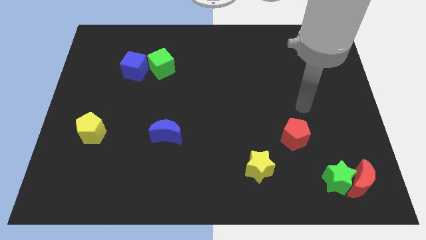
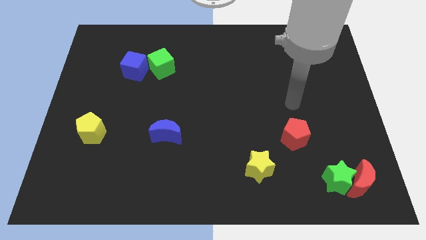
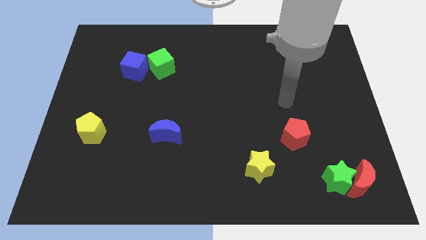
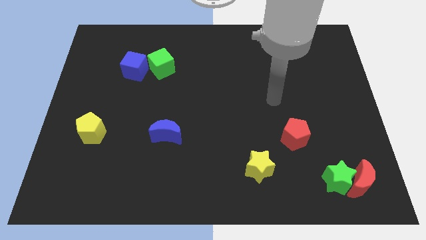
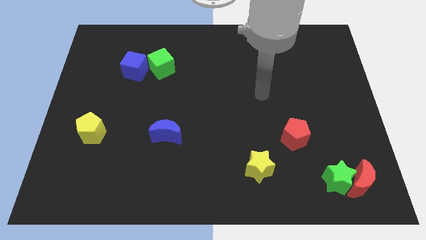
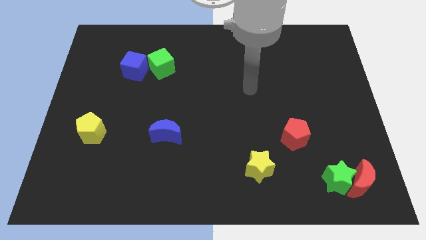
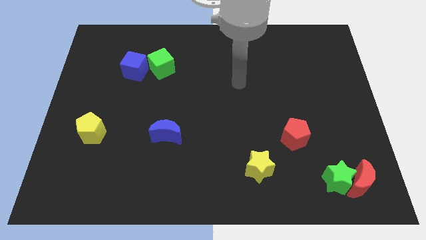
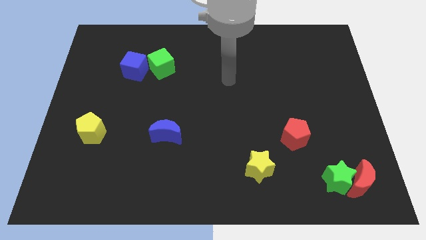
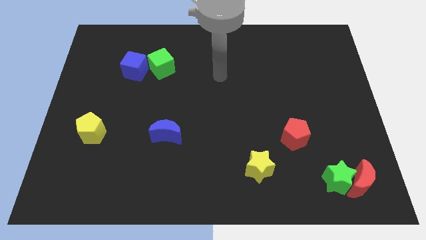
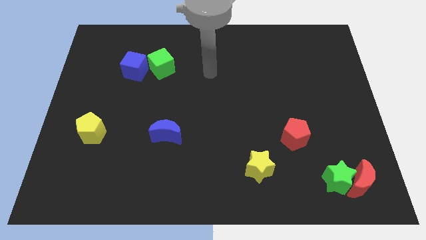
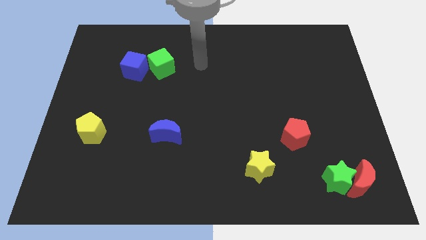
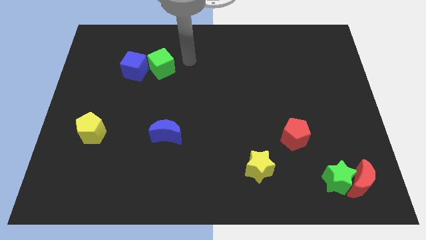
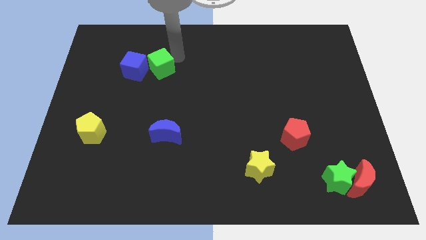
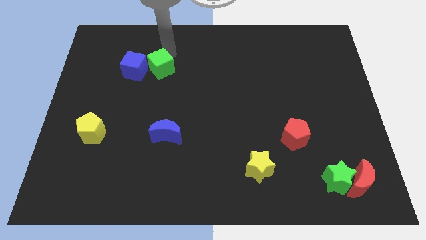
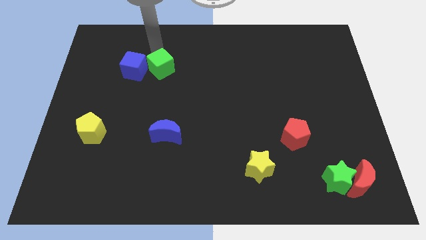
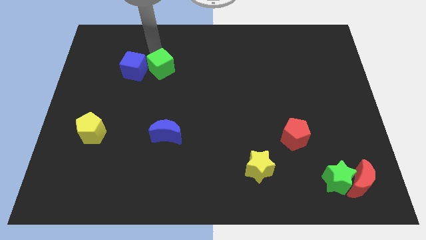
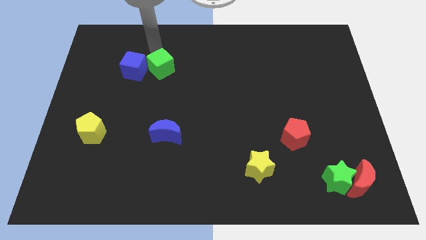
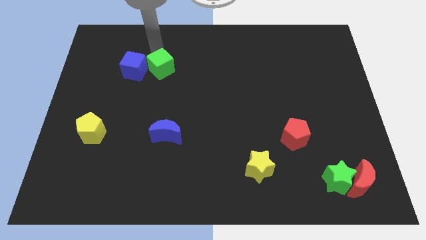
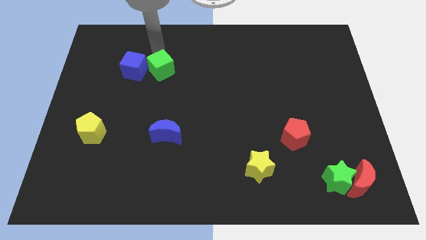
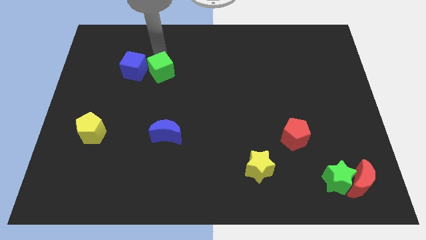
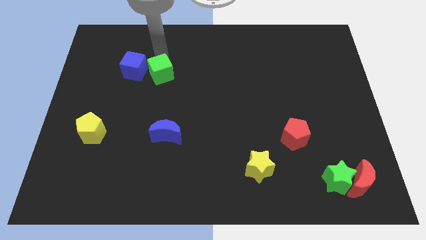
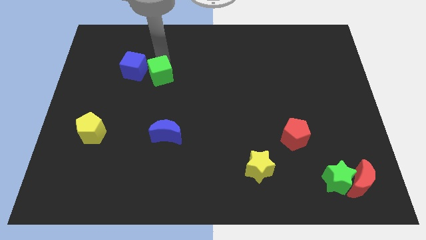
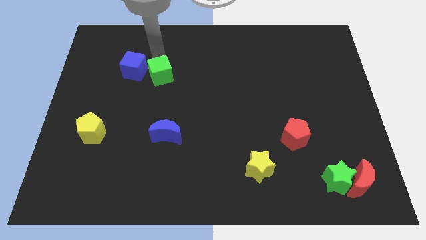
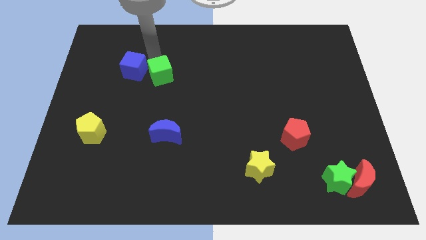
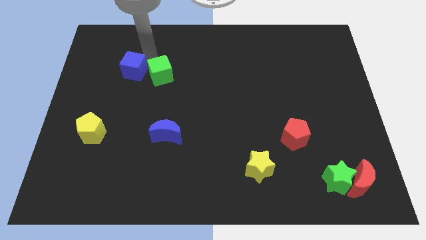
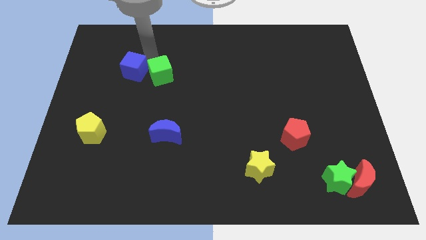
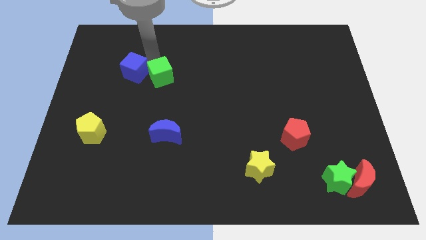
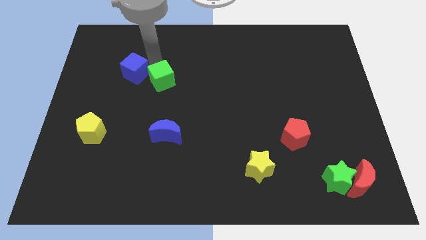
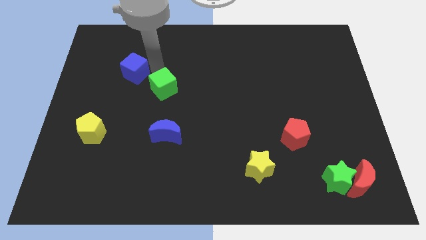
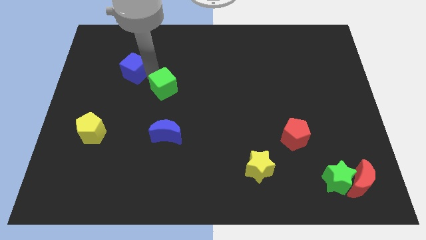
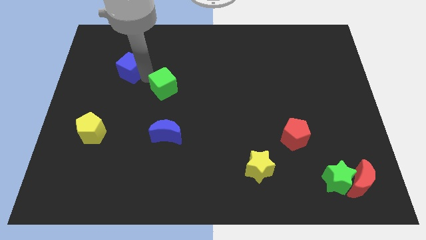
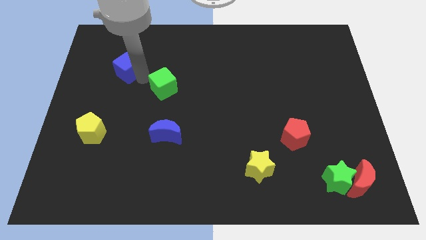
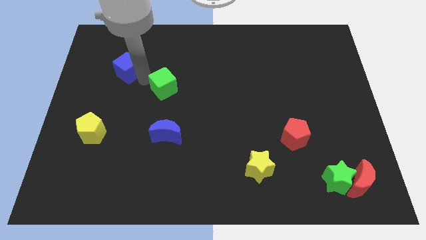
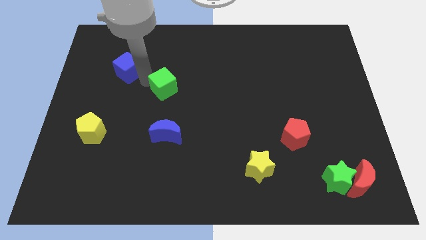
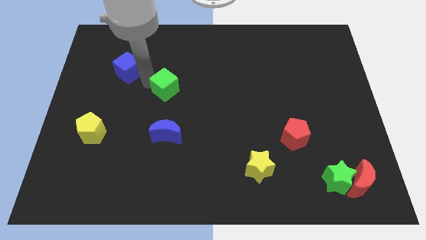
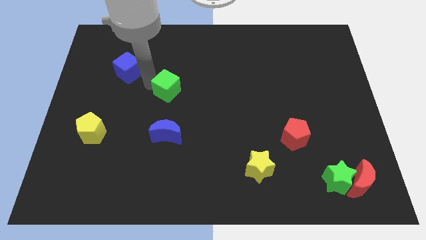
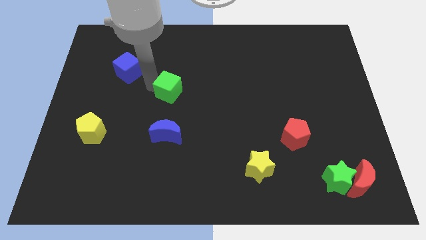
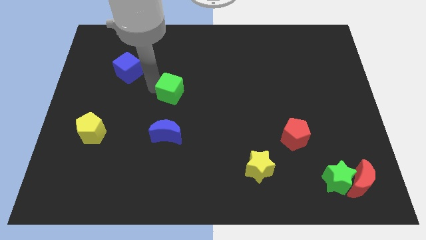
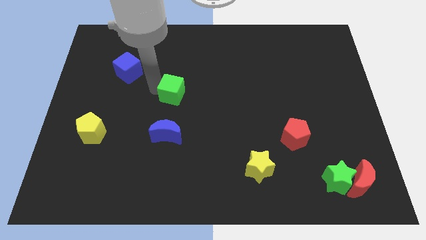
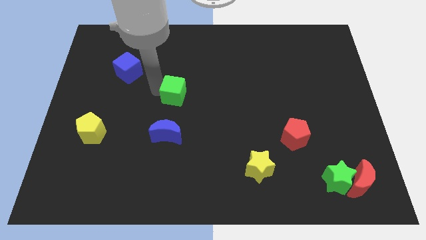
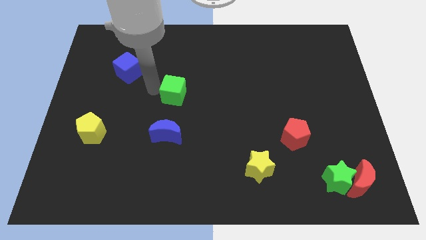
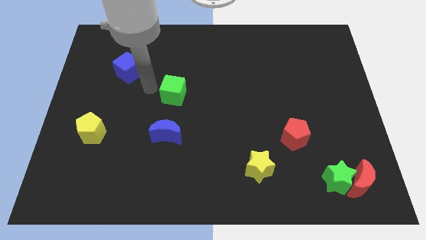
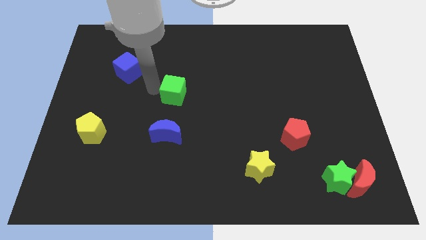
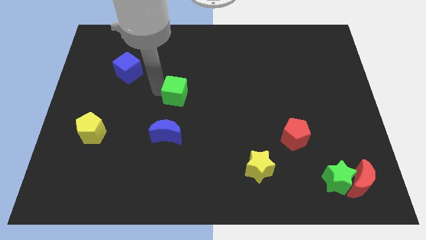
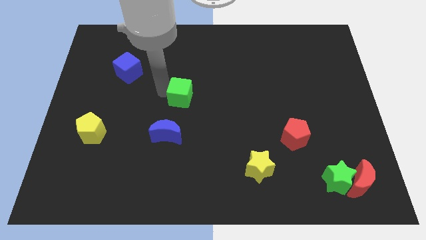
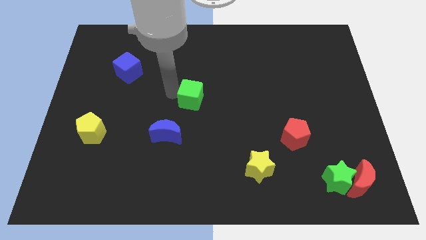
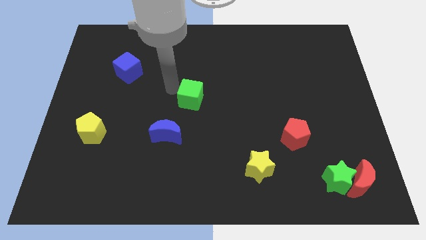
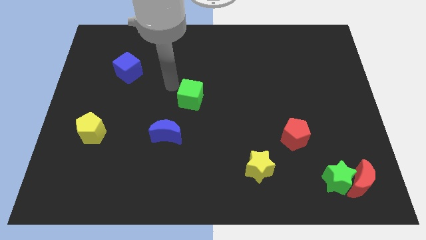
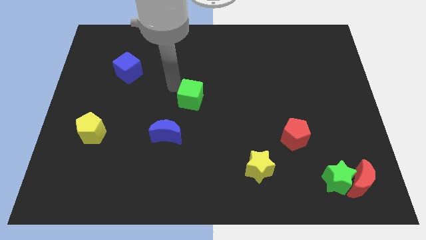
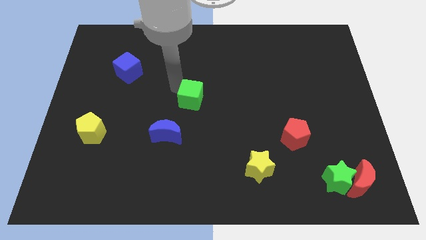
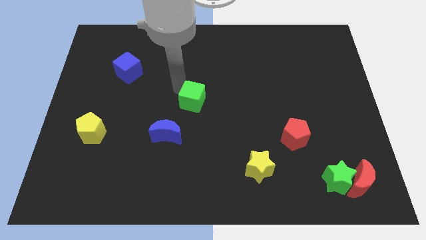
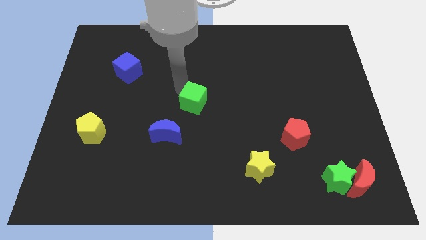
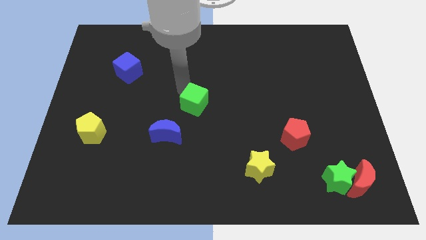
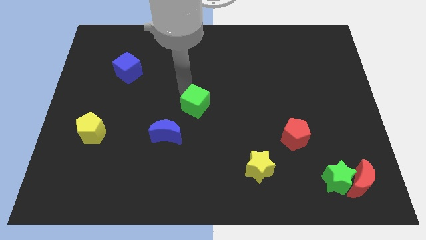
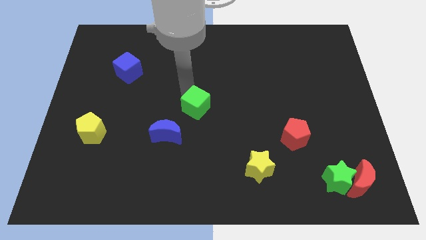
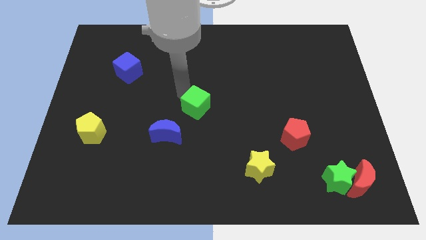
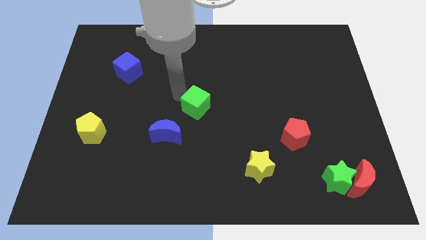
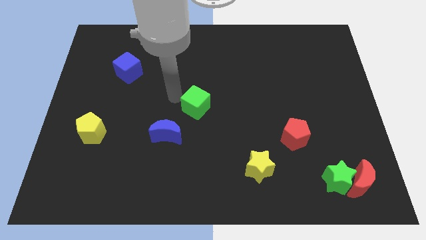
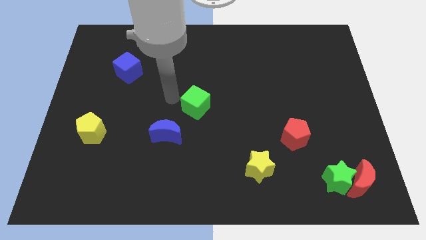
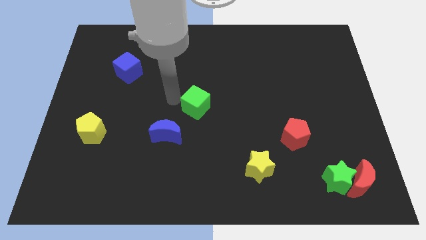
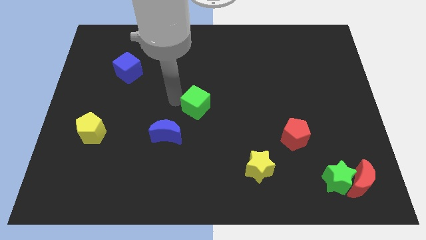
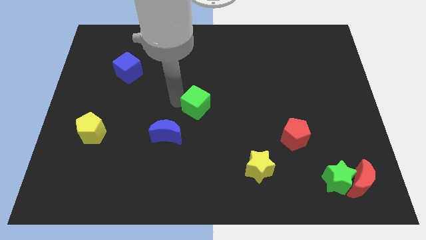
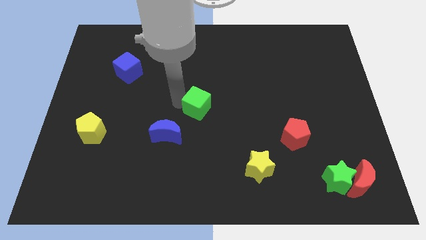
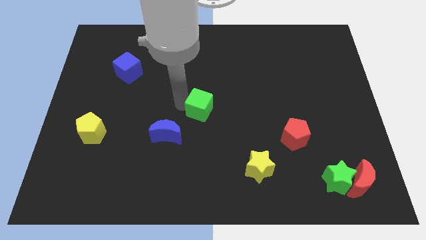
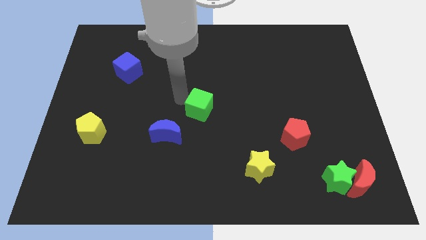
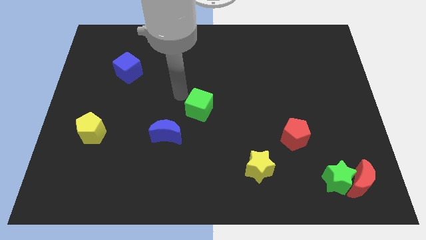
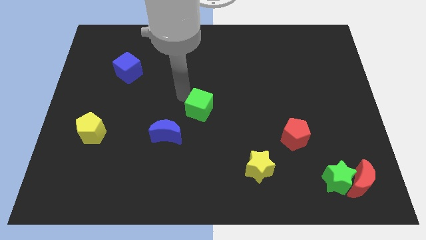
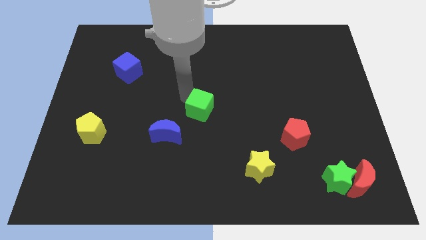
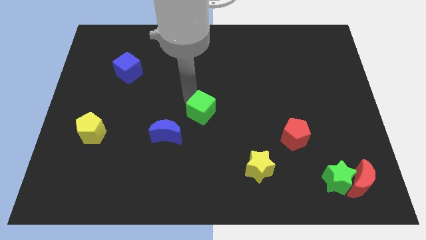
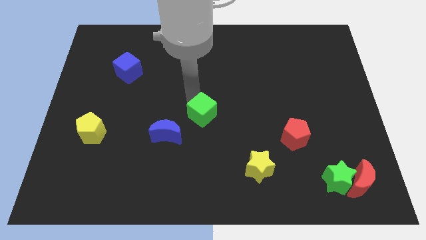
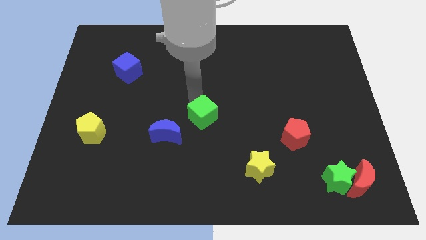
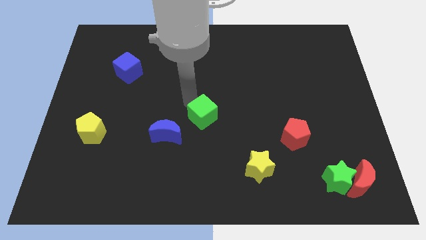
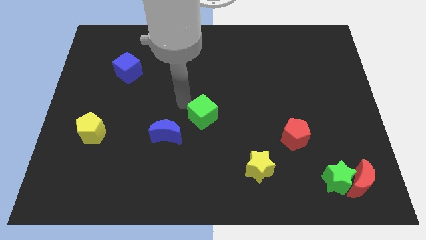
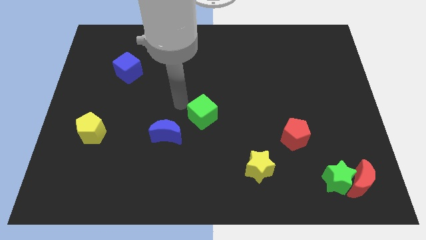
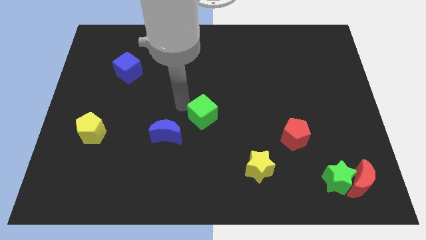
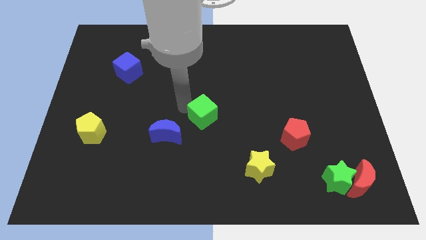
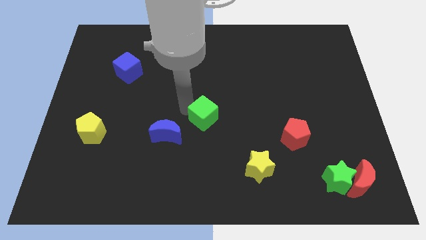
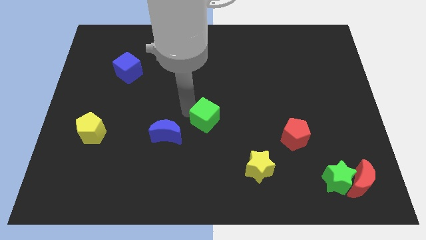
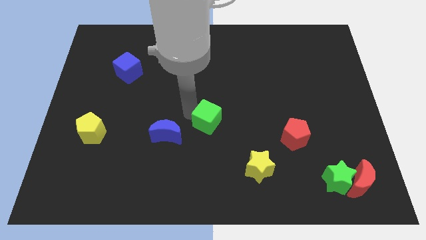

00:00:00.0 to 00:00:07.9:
slide the green cube down and to the right diagonally
